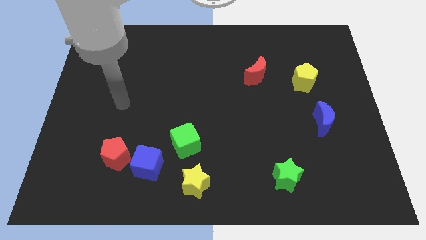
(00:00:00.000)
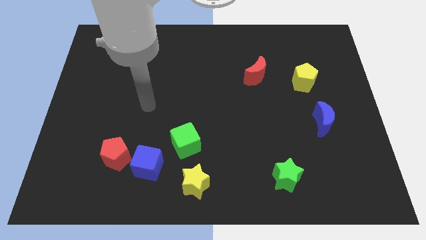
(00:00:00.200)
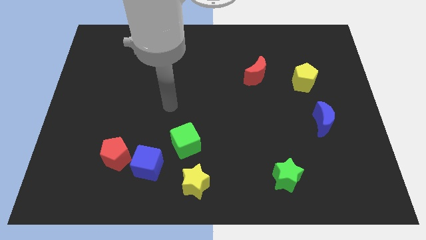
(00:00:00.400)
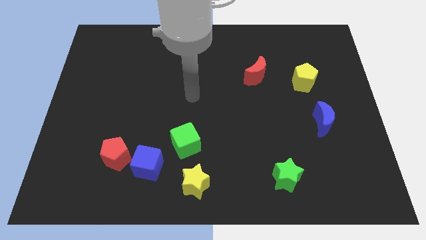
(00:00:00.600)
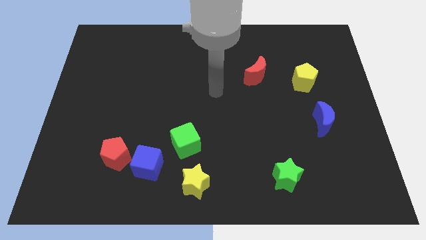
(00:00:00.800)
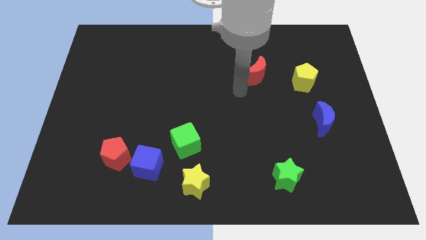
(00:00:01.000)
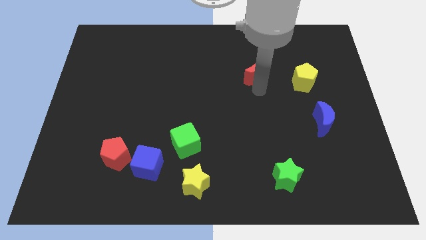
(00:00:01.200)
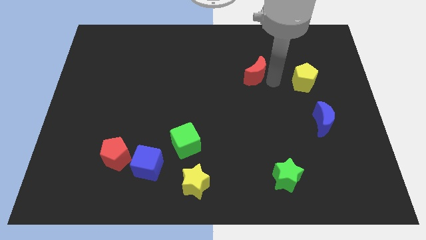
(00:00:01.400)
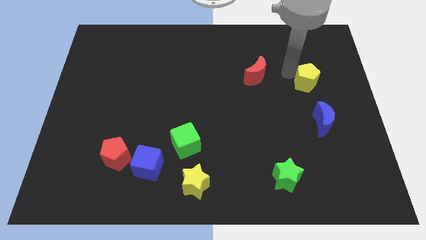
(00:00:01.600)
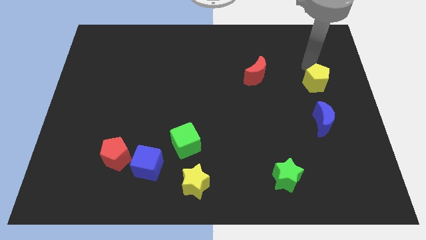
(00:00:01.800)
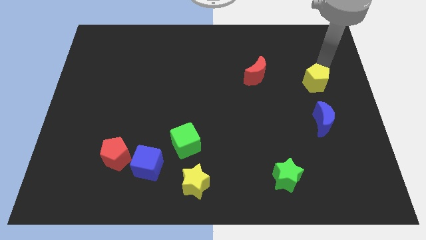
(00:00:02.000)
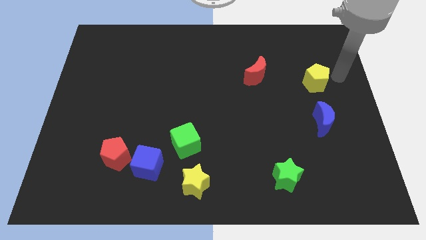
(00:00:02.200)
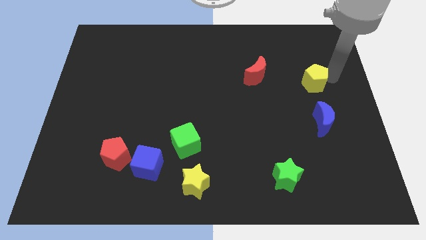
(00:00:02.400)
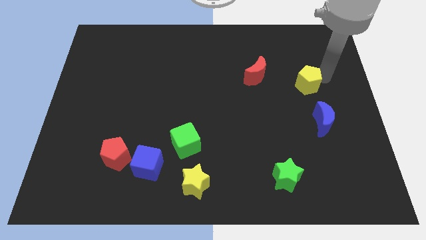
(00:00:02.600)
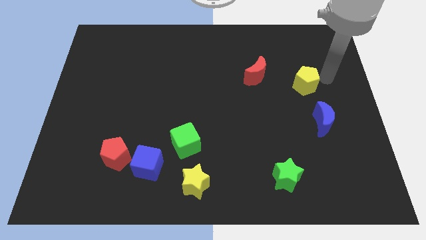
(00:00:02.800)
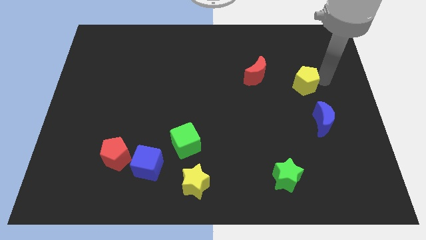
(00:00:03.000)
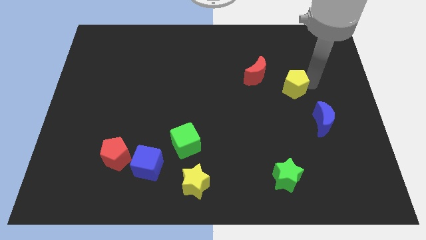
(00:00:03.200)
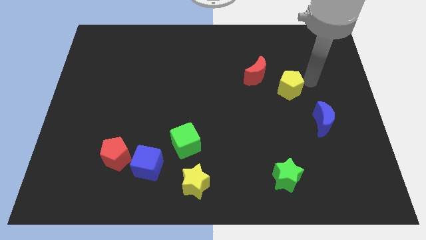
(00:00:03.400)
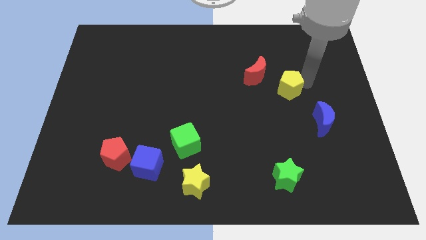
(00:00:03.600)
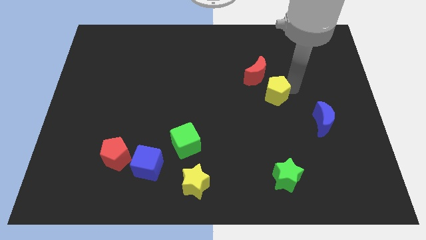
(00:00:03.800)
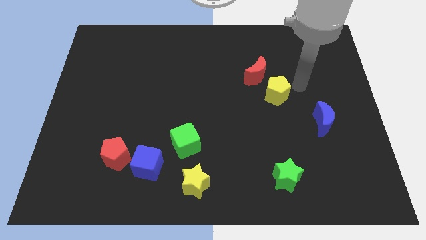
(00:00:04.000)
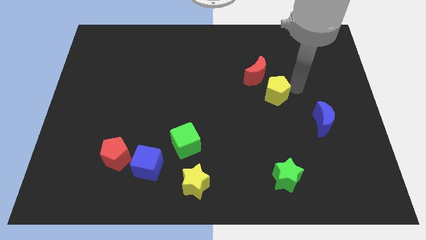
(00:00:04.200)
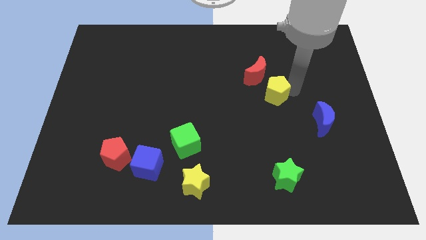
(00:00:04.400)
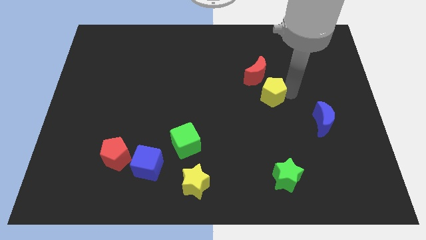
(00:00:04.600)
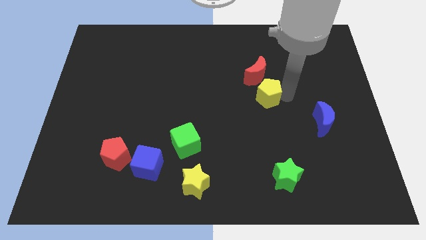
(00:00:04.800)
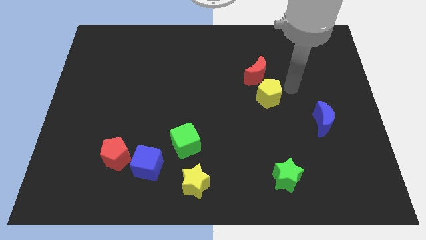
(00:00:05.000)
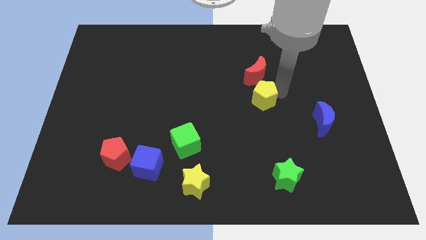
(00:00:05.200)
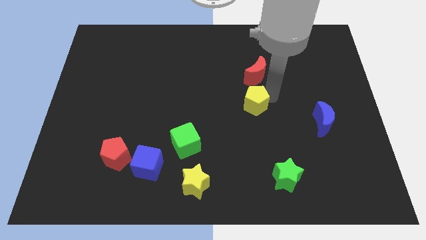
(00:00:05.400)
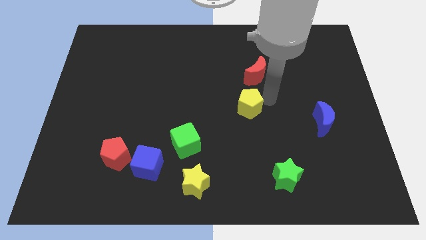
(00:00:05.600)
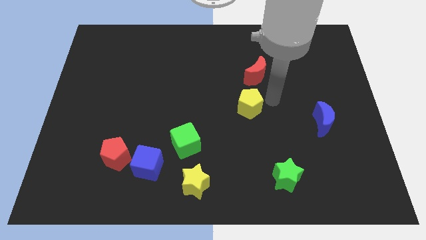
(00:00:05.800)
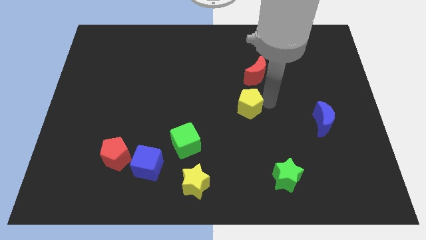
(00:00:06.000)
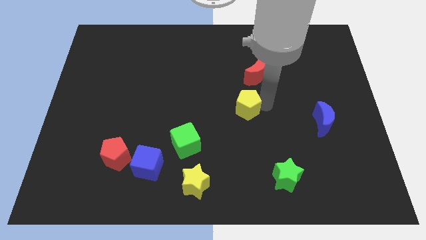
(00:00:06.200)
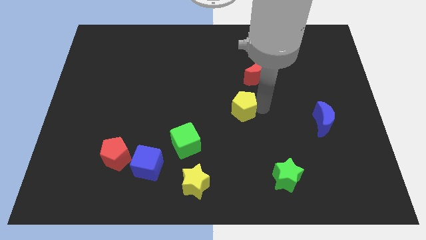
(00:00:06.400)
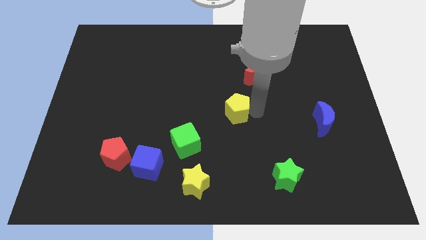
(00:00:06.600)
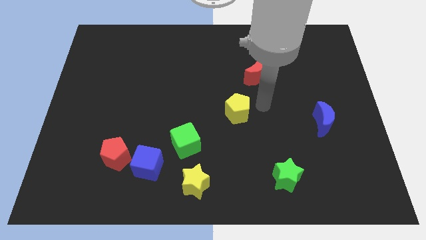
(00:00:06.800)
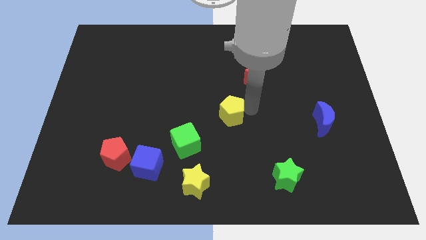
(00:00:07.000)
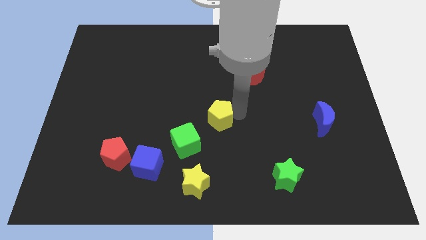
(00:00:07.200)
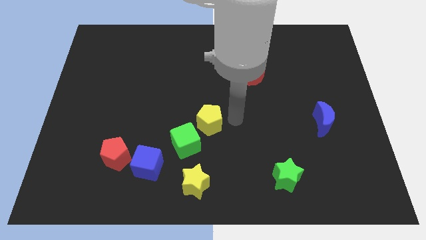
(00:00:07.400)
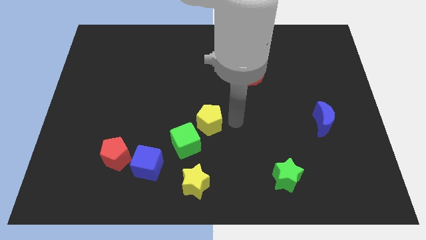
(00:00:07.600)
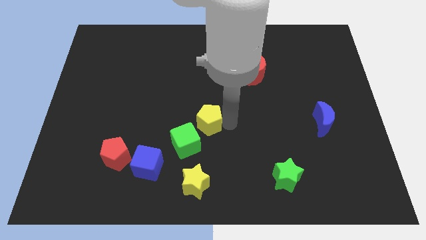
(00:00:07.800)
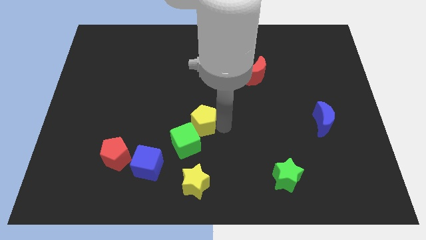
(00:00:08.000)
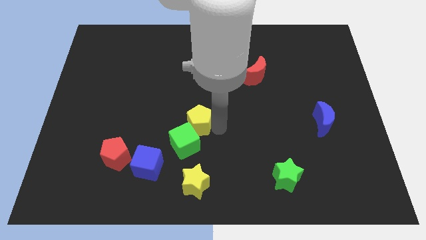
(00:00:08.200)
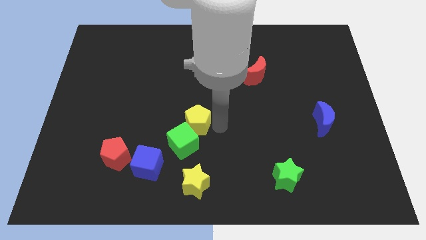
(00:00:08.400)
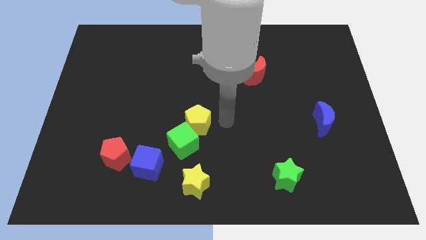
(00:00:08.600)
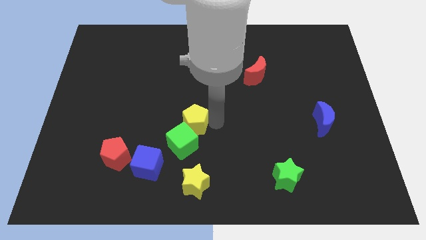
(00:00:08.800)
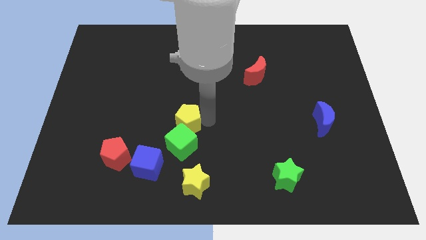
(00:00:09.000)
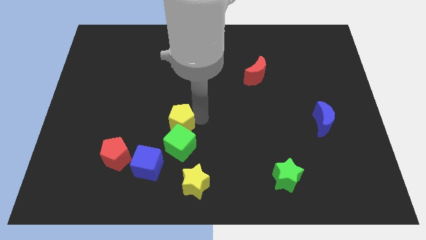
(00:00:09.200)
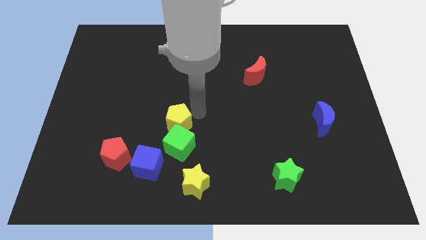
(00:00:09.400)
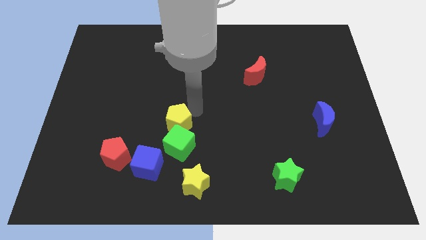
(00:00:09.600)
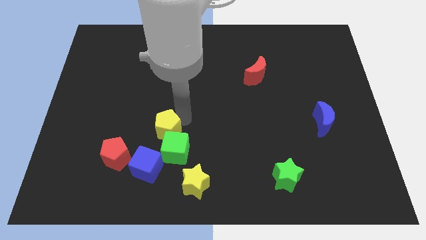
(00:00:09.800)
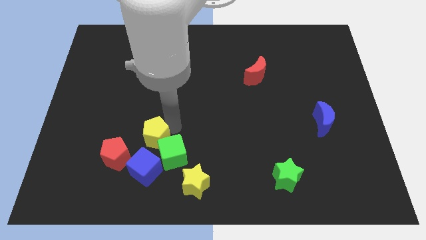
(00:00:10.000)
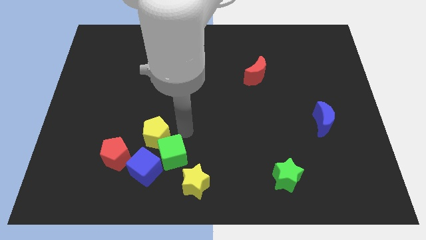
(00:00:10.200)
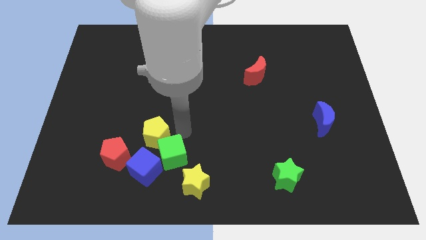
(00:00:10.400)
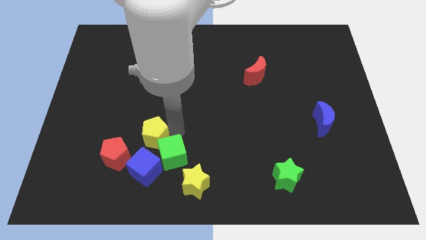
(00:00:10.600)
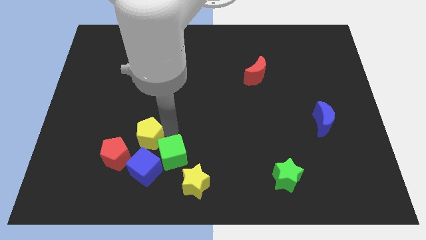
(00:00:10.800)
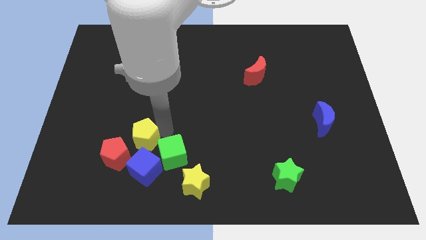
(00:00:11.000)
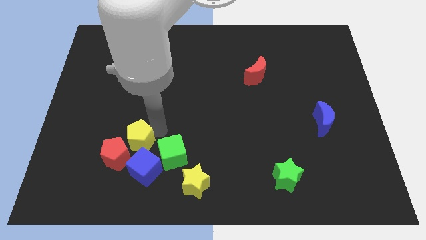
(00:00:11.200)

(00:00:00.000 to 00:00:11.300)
put the yellow pentagon close to the red pentagon

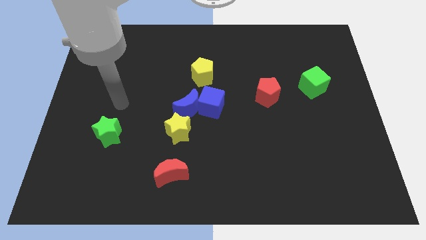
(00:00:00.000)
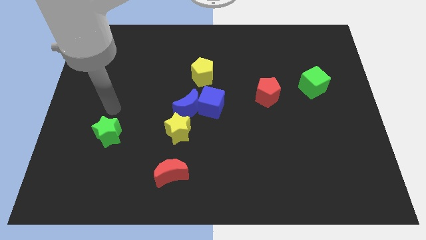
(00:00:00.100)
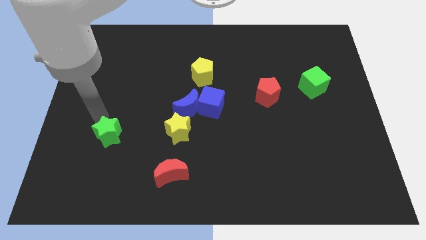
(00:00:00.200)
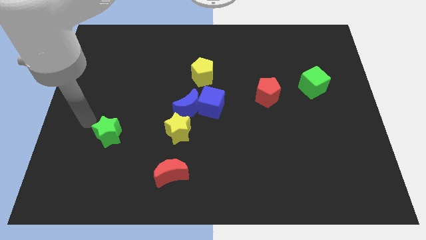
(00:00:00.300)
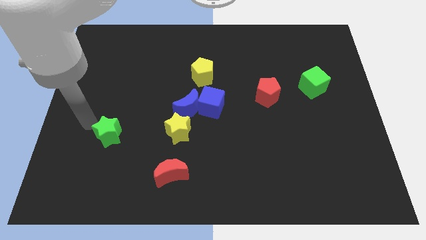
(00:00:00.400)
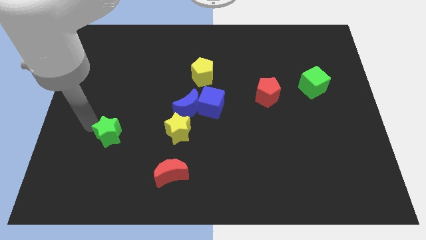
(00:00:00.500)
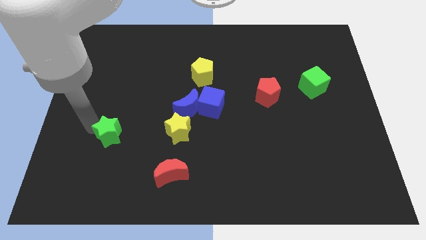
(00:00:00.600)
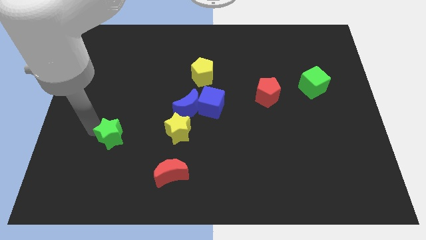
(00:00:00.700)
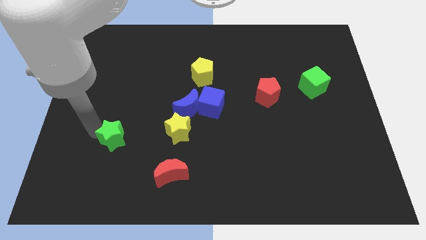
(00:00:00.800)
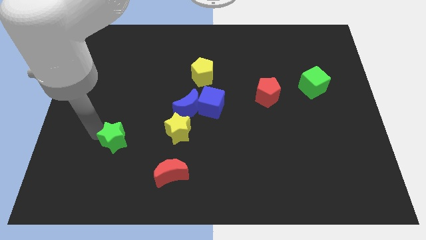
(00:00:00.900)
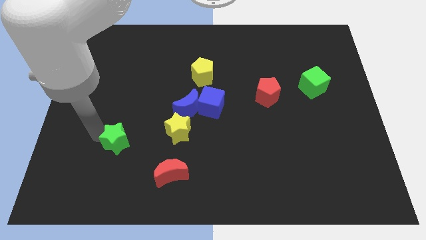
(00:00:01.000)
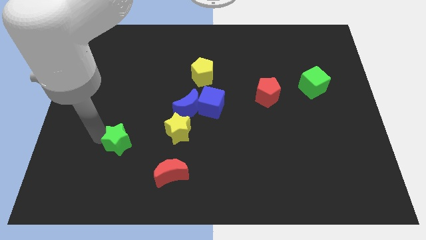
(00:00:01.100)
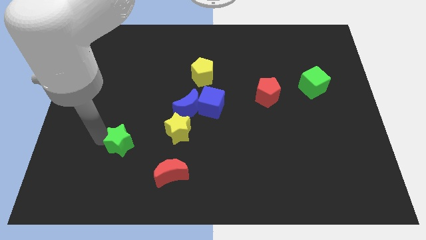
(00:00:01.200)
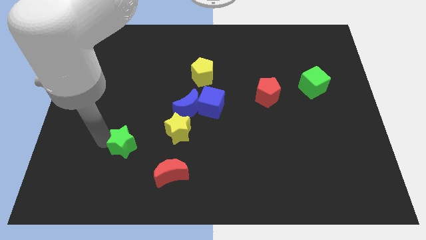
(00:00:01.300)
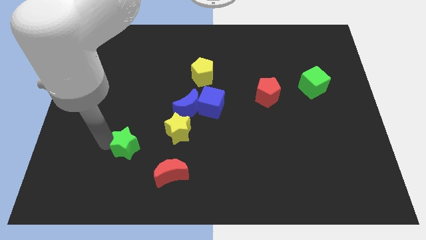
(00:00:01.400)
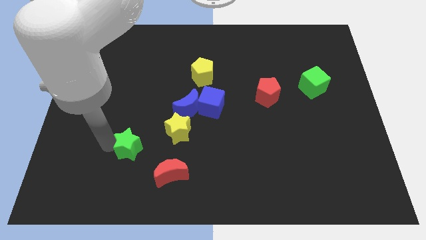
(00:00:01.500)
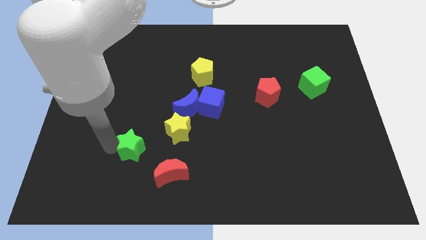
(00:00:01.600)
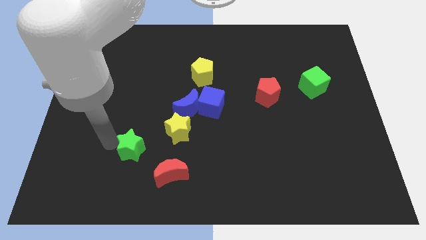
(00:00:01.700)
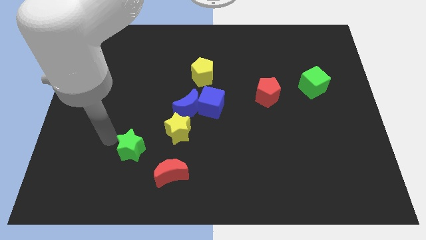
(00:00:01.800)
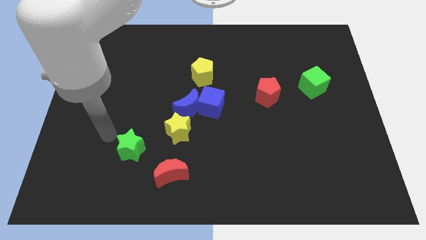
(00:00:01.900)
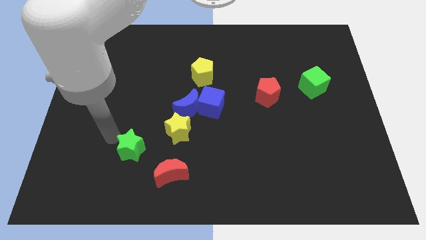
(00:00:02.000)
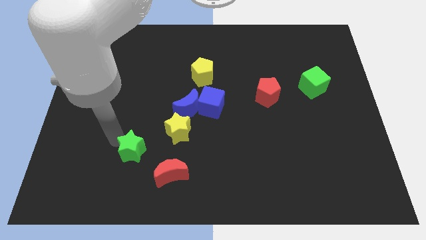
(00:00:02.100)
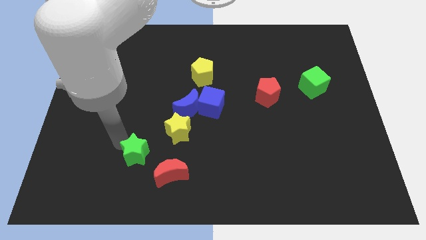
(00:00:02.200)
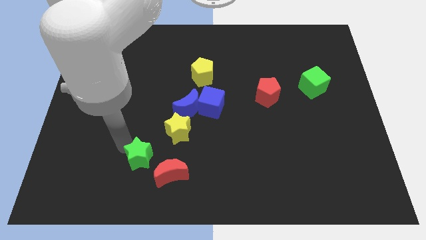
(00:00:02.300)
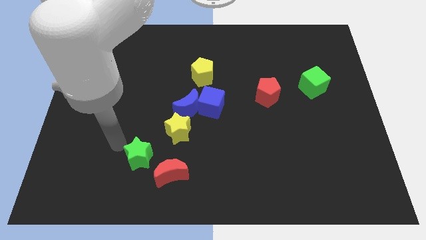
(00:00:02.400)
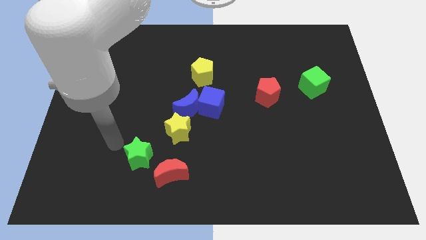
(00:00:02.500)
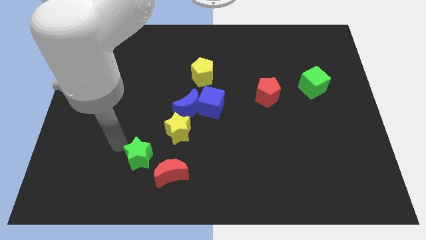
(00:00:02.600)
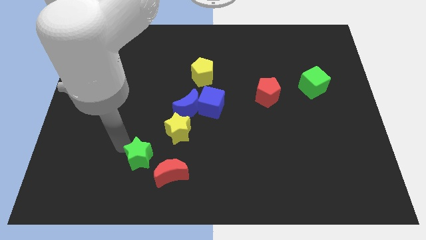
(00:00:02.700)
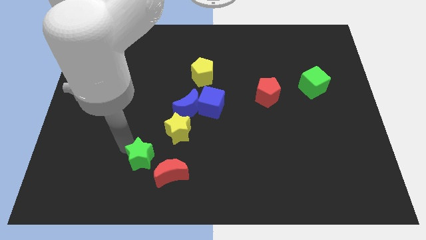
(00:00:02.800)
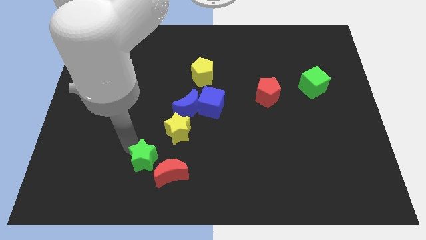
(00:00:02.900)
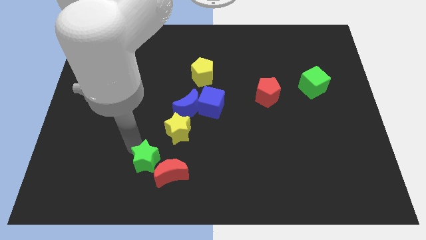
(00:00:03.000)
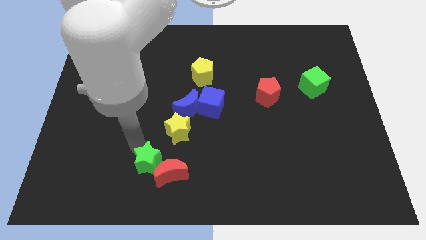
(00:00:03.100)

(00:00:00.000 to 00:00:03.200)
push the green star towards the red moon
